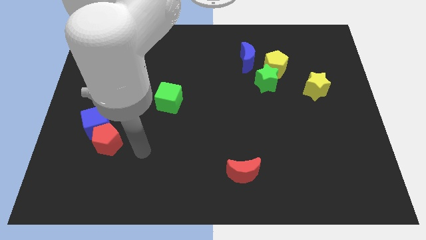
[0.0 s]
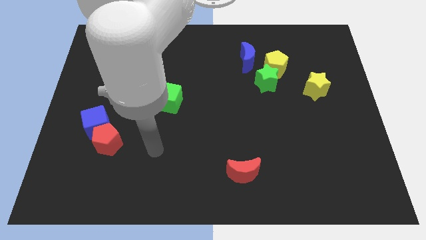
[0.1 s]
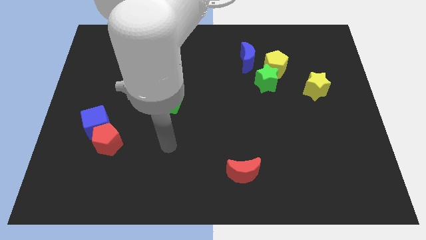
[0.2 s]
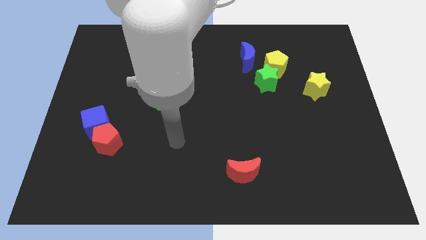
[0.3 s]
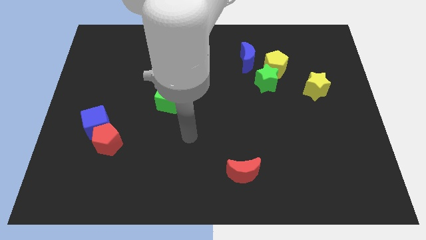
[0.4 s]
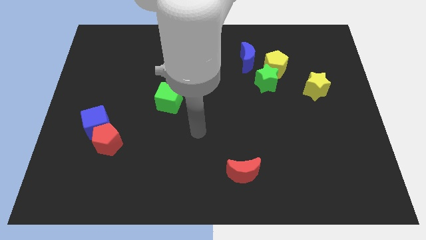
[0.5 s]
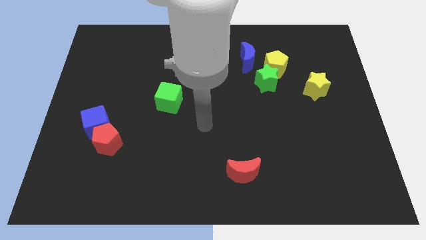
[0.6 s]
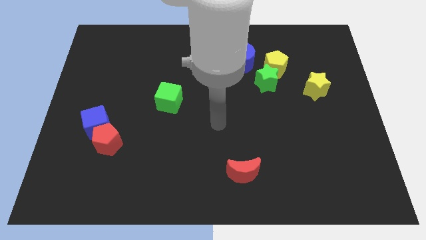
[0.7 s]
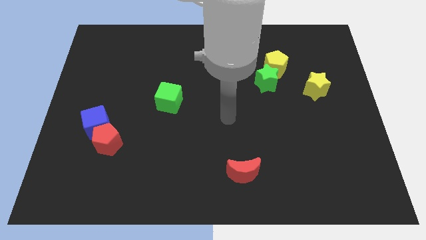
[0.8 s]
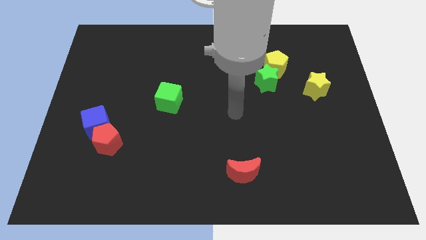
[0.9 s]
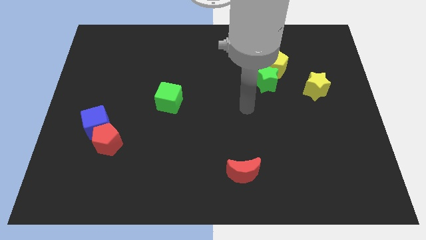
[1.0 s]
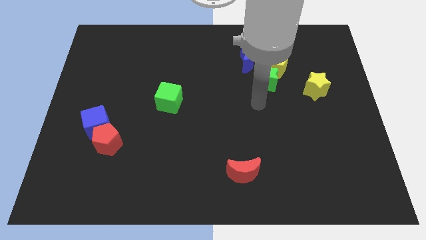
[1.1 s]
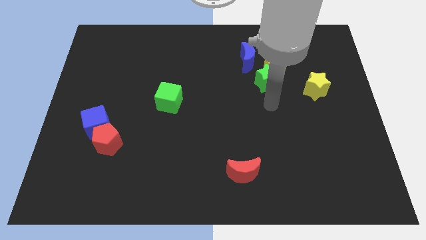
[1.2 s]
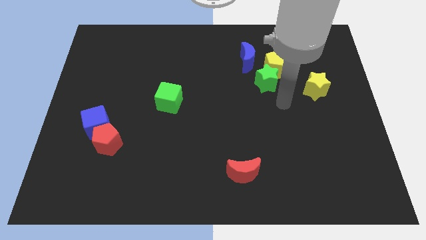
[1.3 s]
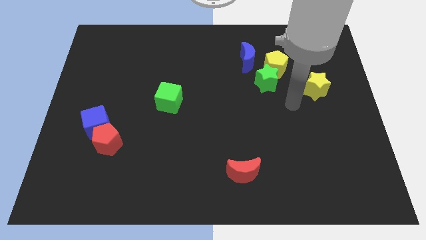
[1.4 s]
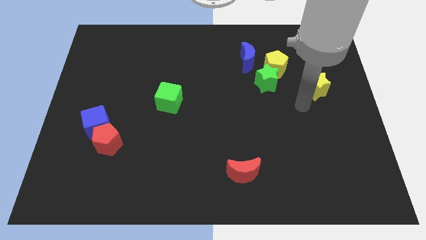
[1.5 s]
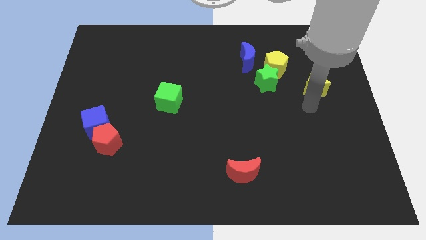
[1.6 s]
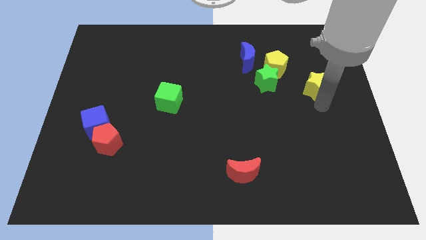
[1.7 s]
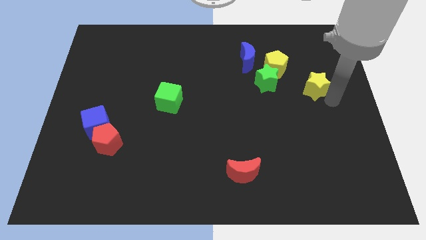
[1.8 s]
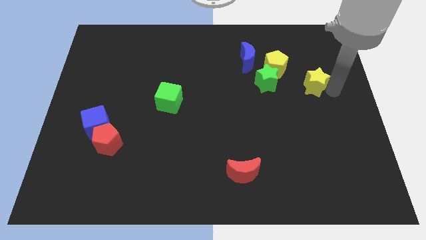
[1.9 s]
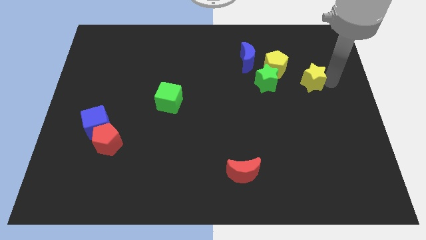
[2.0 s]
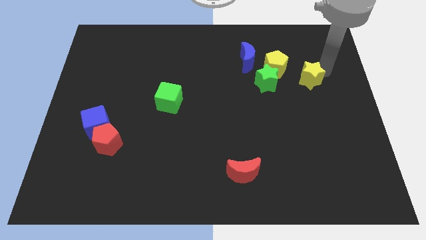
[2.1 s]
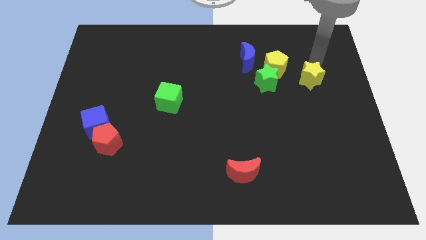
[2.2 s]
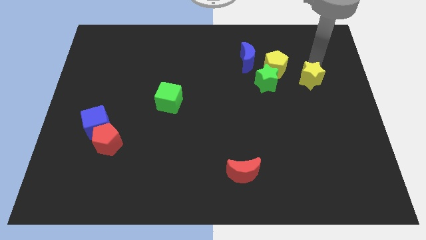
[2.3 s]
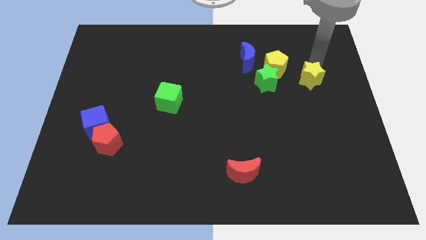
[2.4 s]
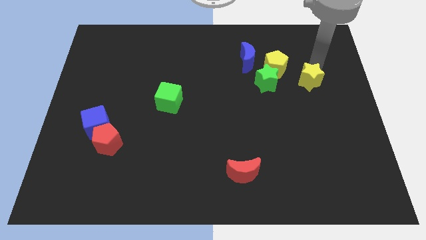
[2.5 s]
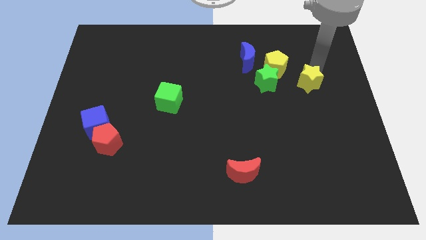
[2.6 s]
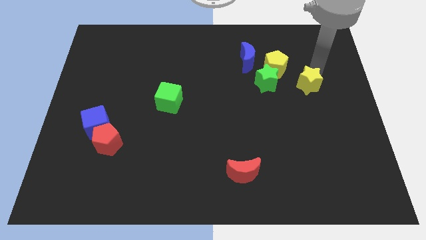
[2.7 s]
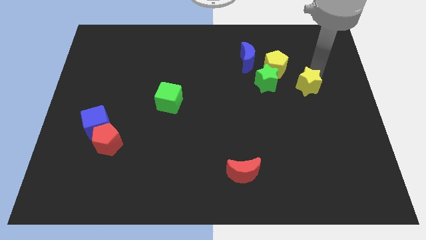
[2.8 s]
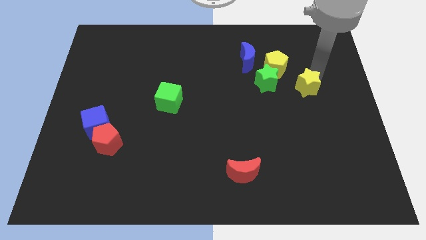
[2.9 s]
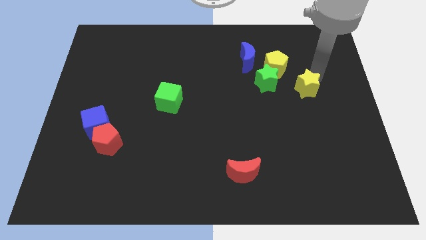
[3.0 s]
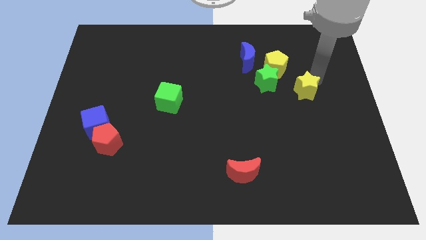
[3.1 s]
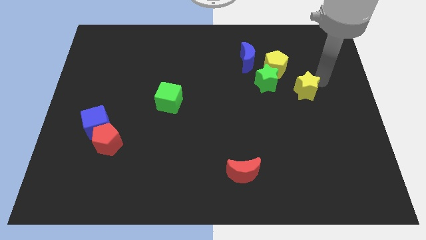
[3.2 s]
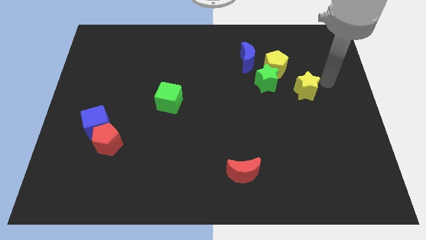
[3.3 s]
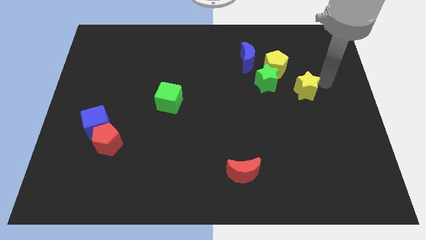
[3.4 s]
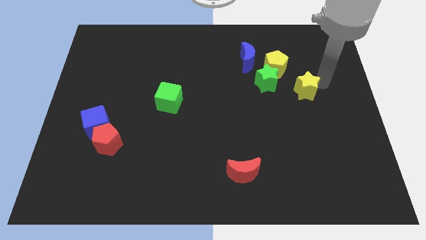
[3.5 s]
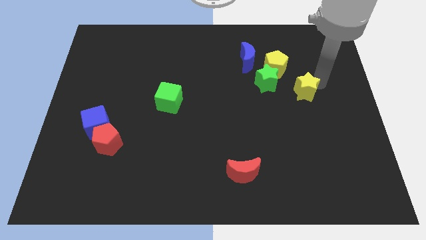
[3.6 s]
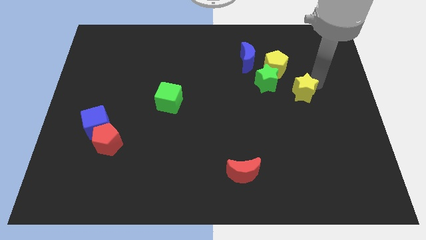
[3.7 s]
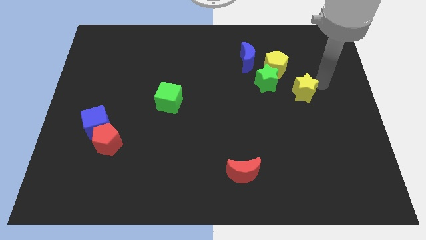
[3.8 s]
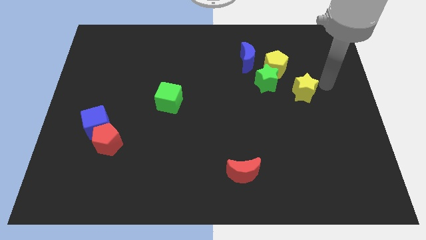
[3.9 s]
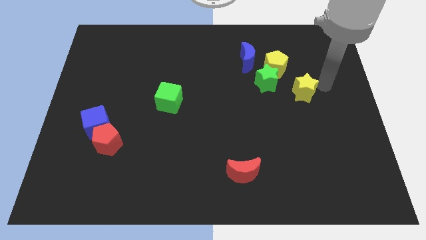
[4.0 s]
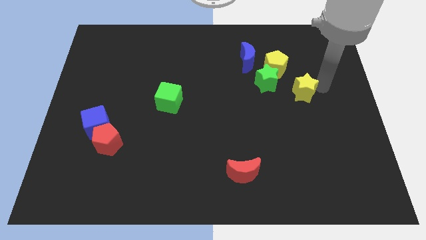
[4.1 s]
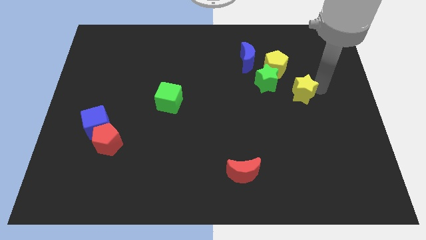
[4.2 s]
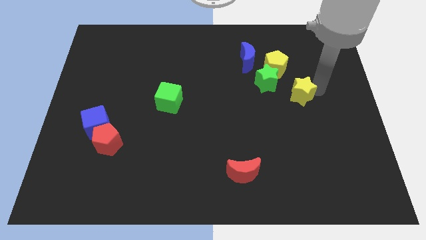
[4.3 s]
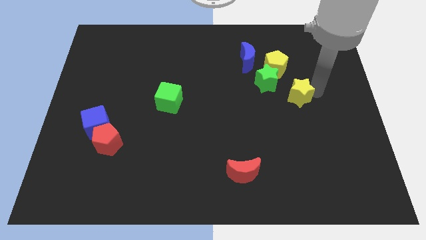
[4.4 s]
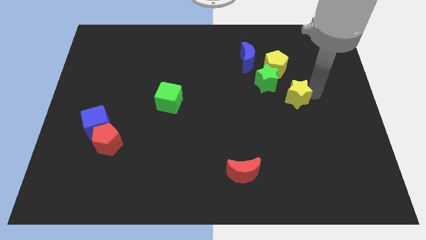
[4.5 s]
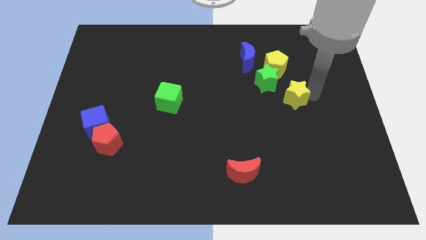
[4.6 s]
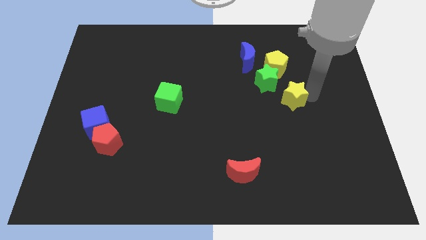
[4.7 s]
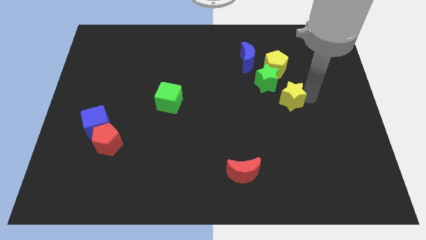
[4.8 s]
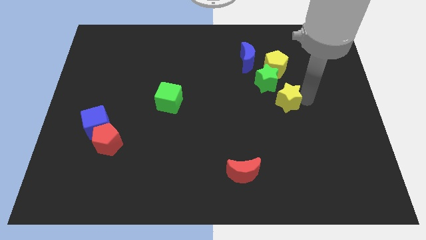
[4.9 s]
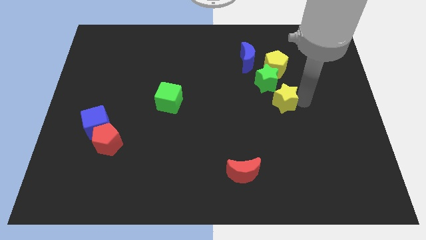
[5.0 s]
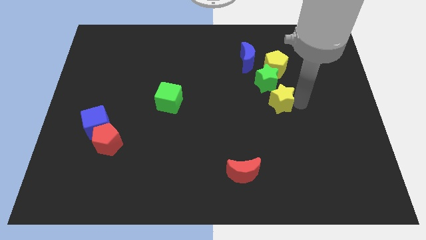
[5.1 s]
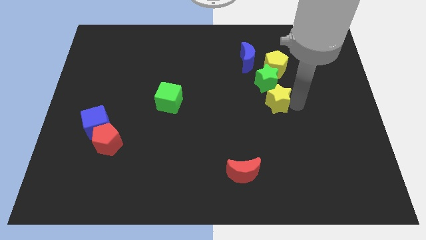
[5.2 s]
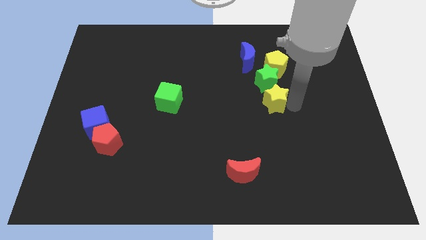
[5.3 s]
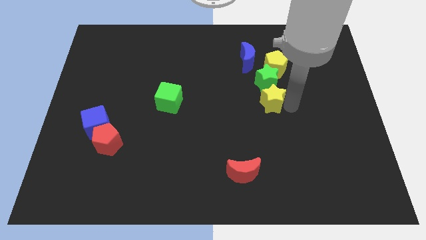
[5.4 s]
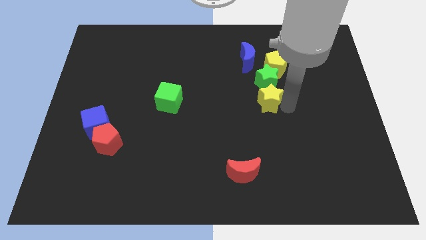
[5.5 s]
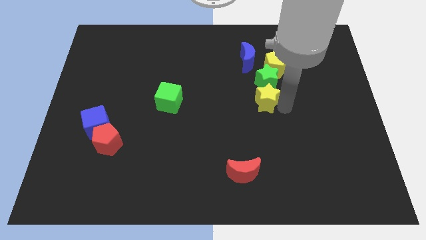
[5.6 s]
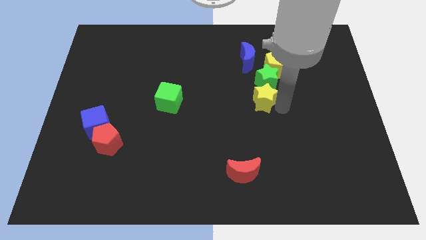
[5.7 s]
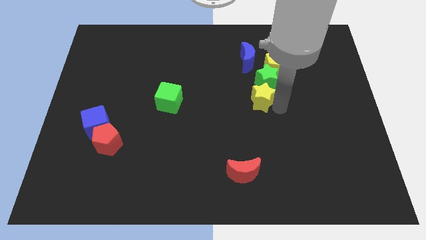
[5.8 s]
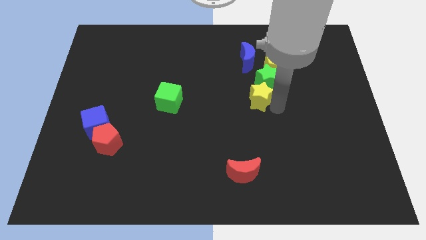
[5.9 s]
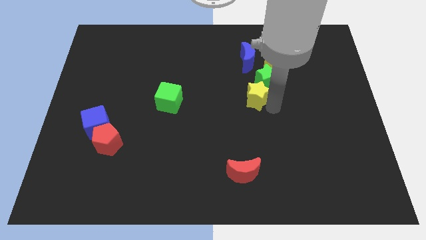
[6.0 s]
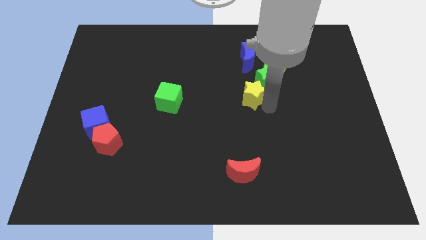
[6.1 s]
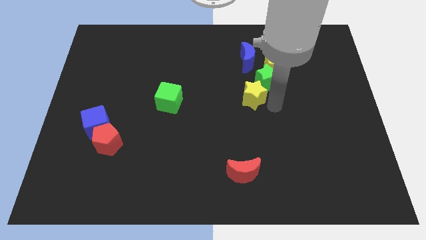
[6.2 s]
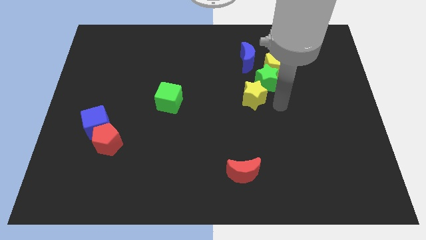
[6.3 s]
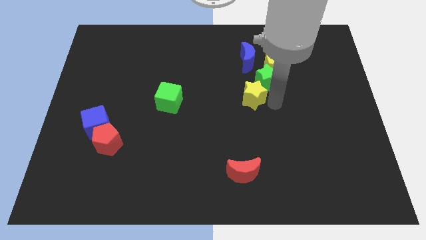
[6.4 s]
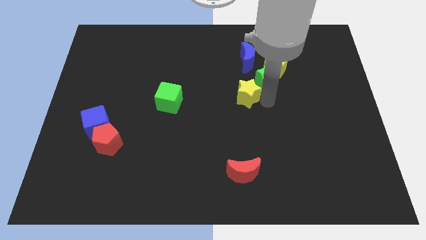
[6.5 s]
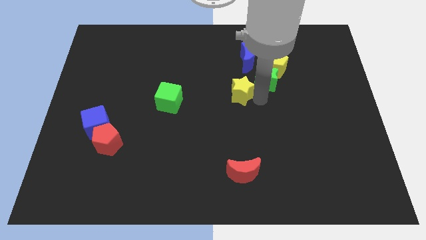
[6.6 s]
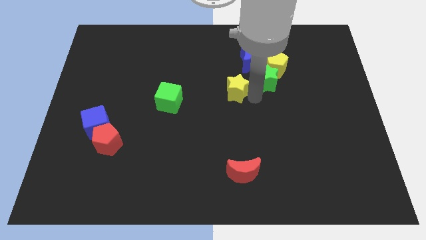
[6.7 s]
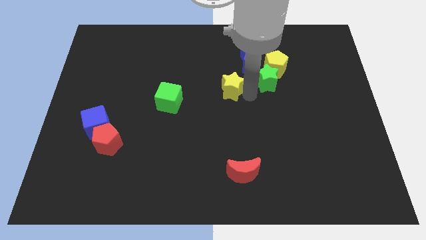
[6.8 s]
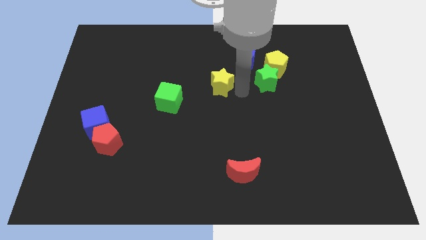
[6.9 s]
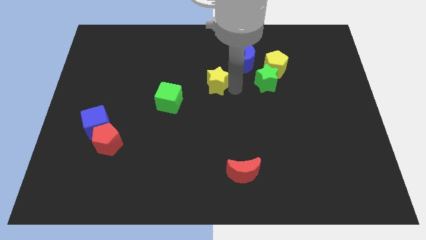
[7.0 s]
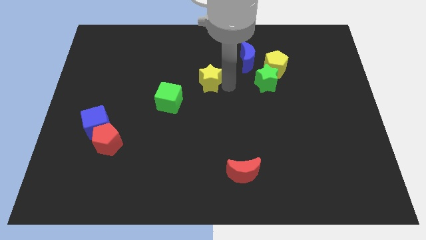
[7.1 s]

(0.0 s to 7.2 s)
move the yellow star diagonally up and to the right of the green cube
